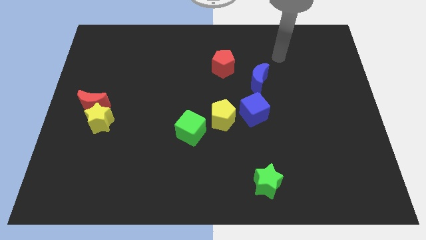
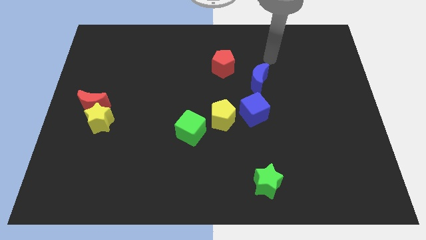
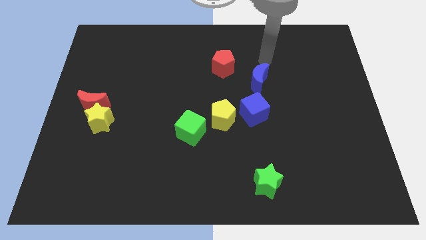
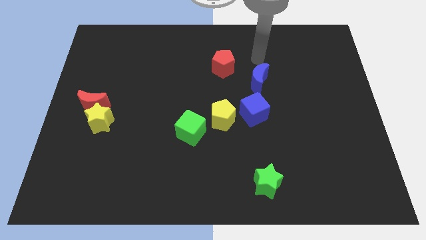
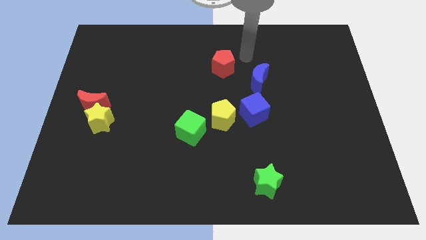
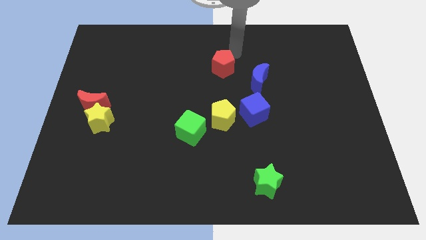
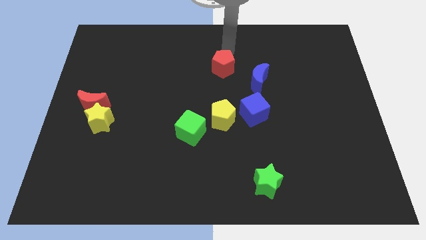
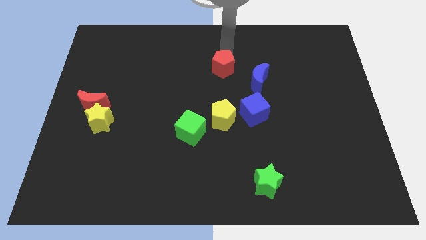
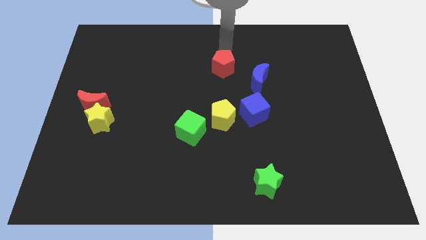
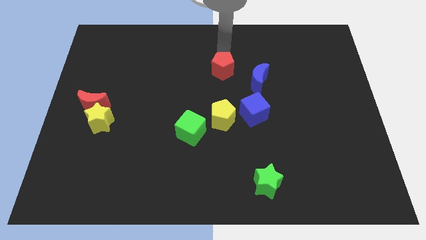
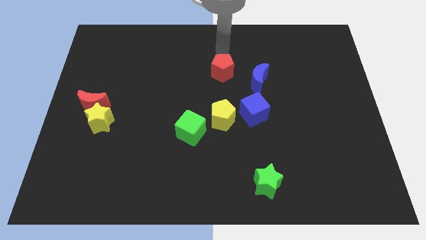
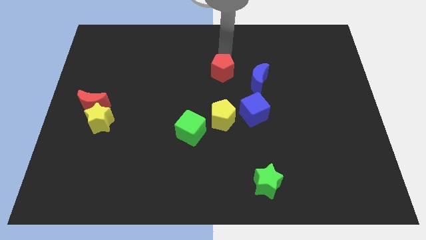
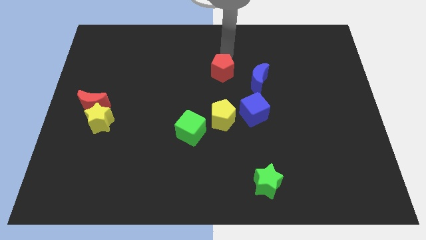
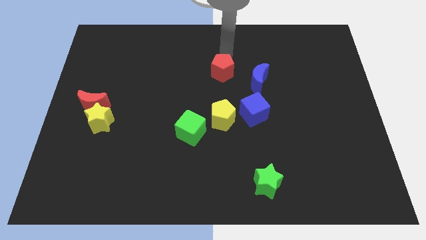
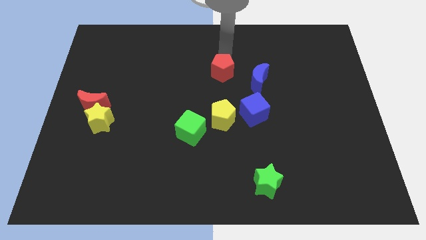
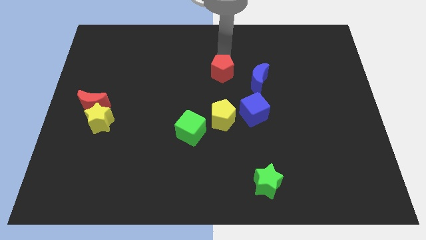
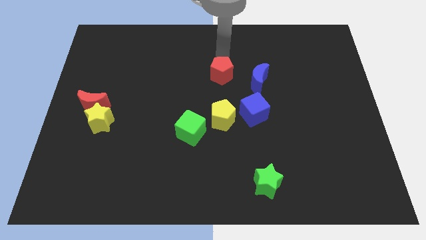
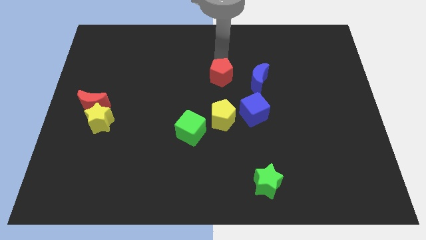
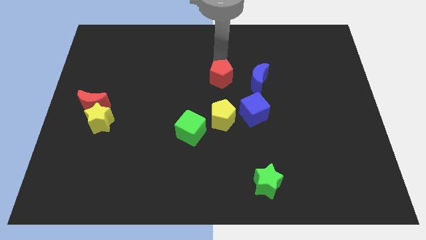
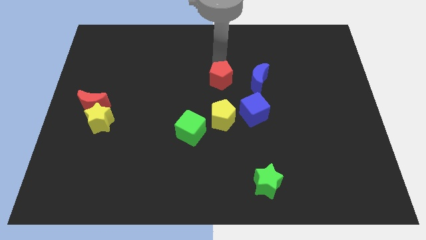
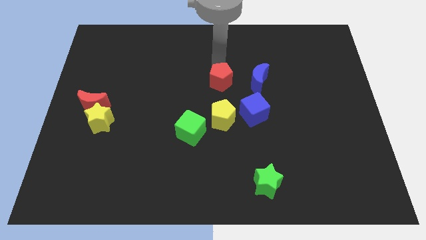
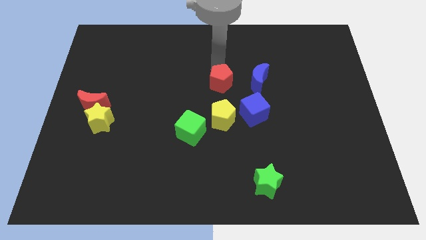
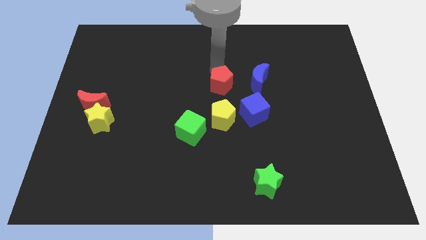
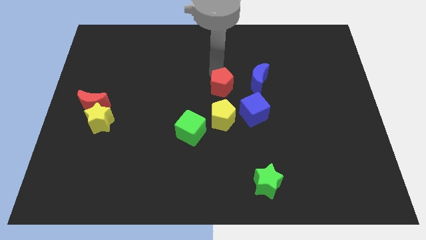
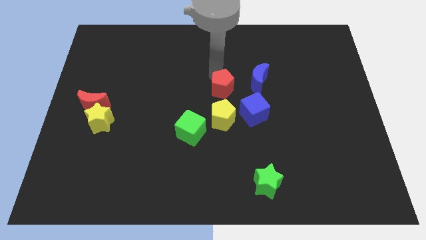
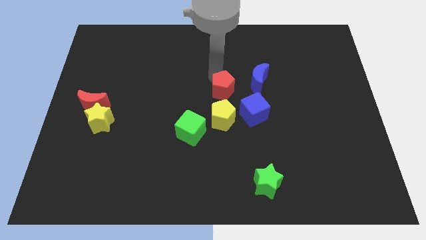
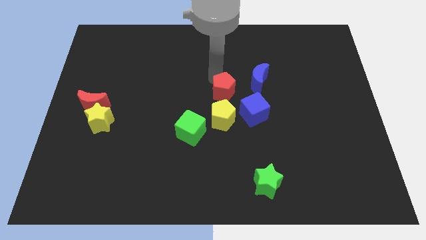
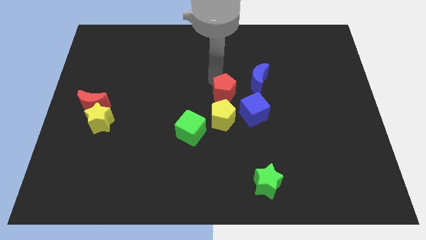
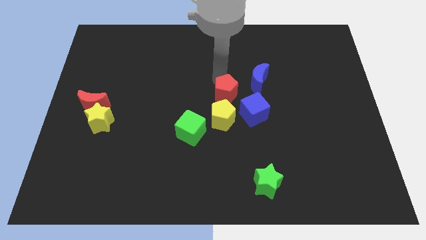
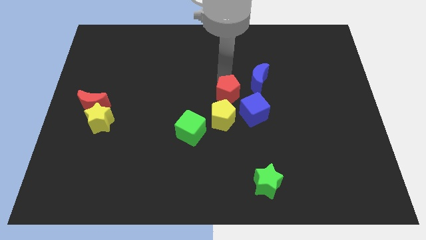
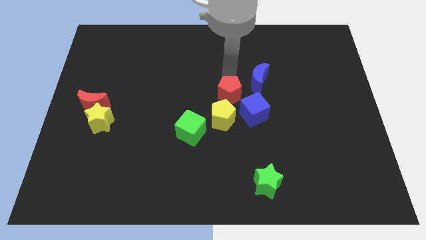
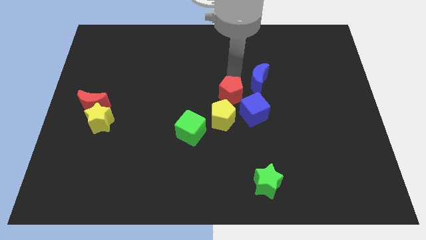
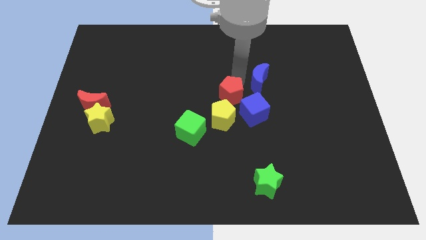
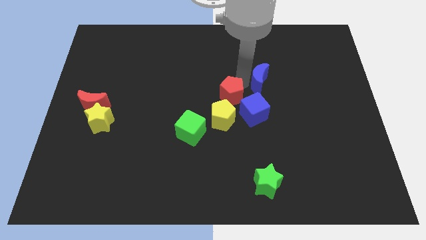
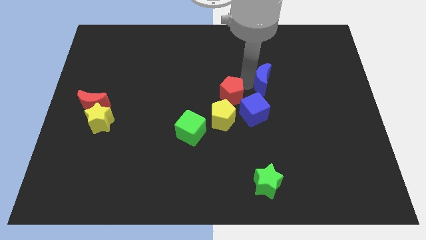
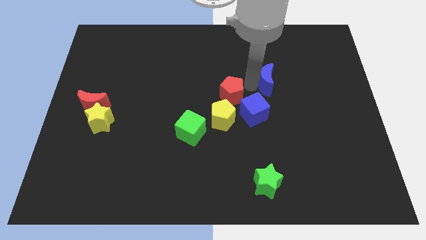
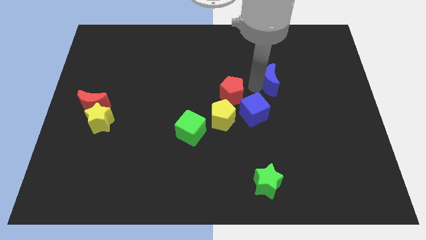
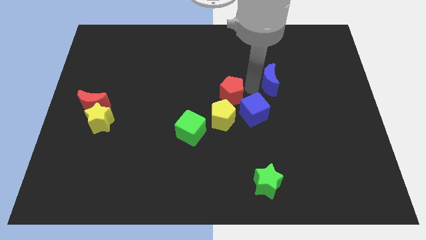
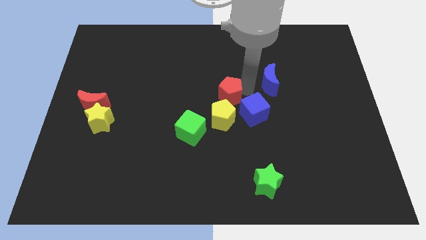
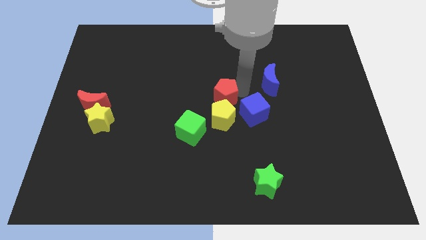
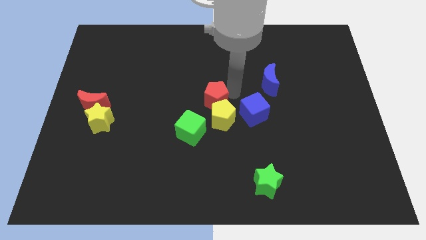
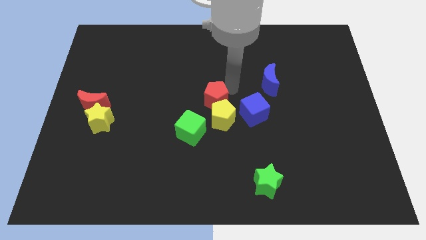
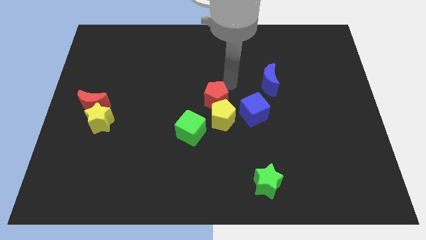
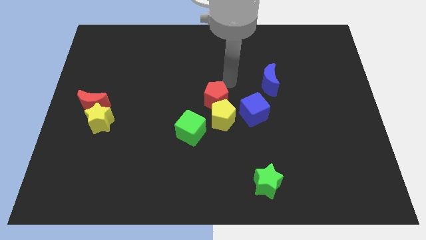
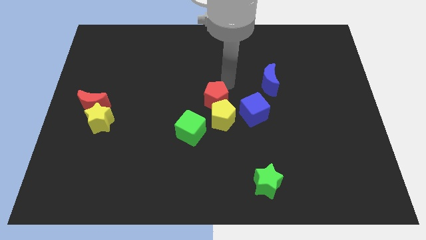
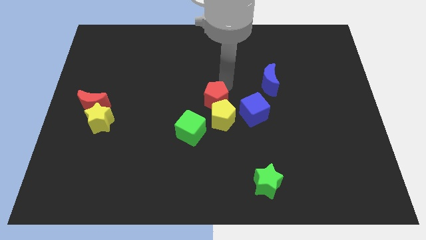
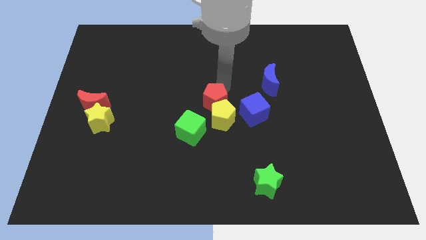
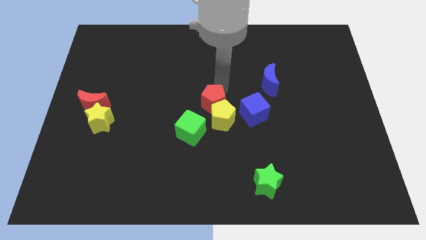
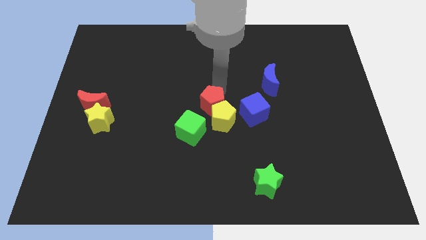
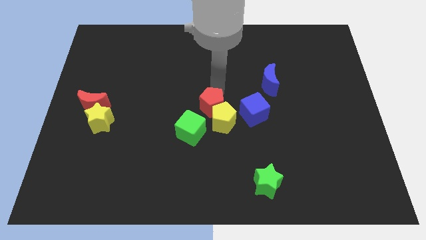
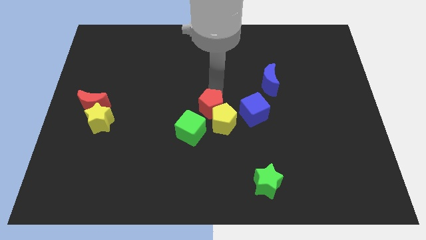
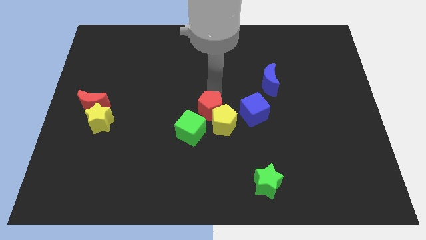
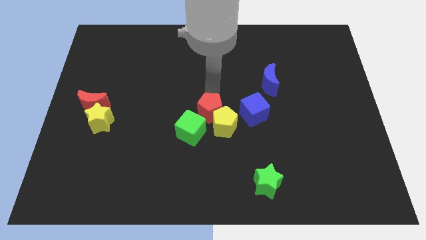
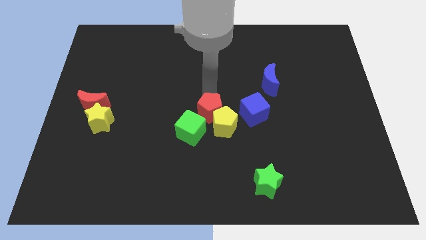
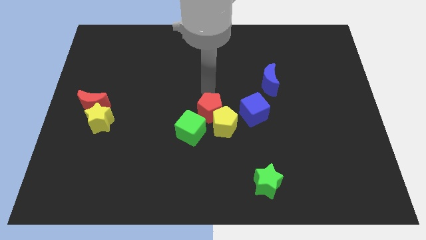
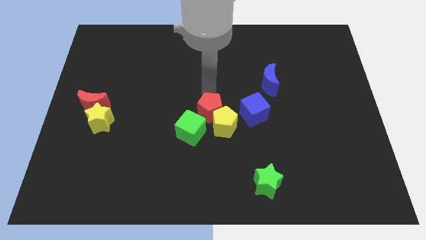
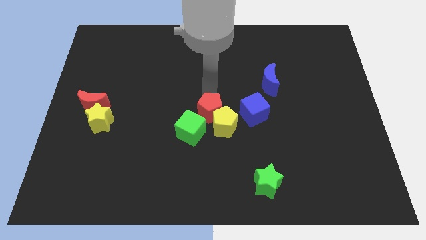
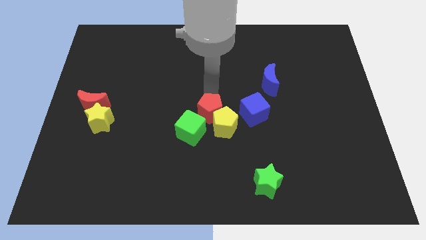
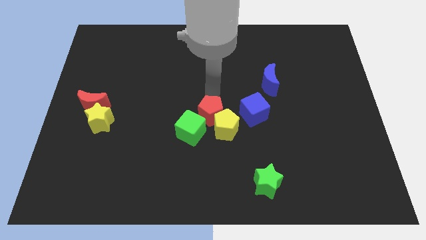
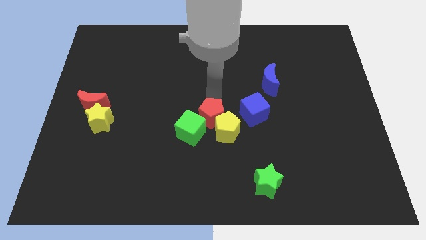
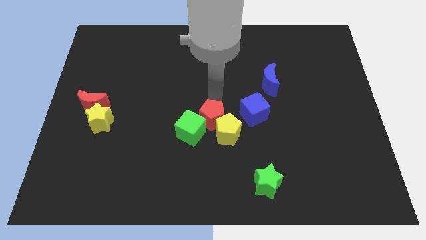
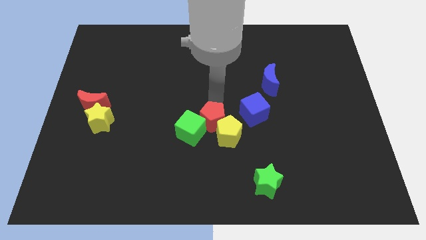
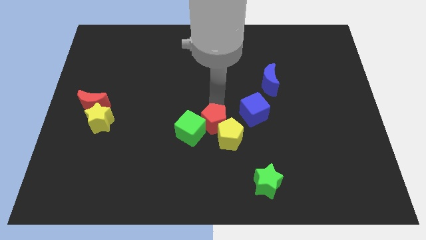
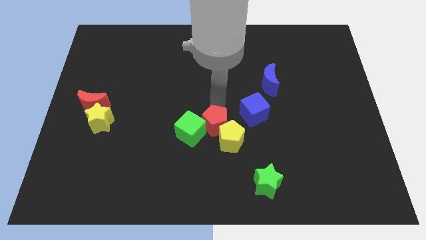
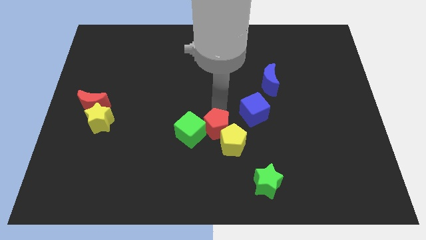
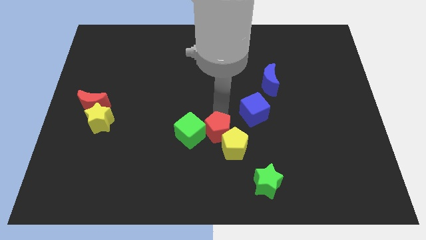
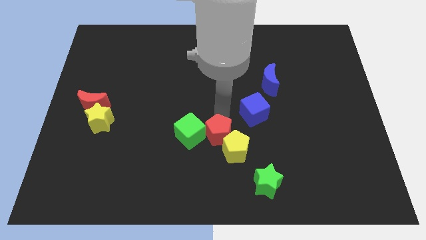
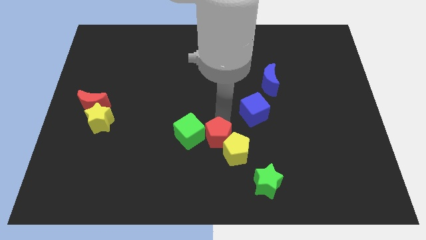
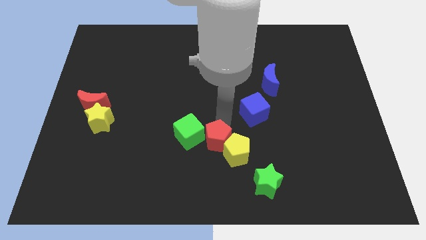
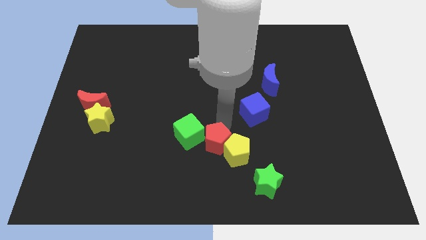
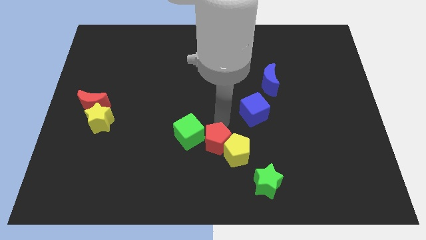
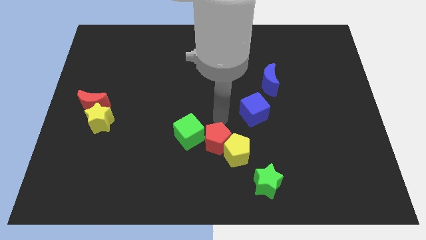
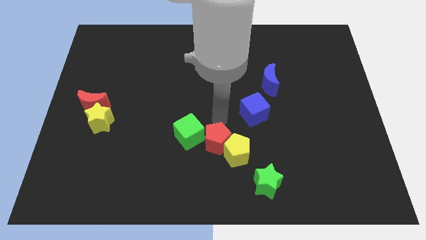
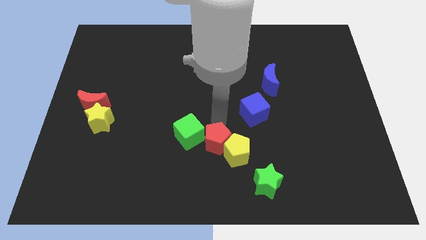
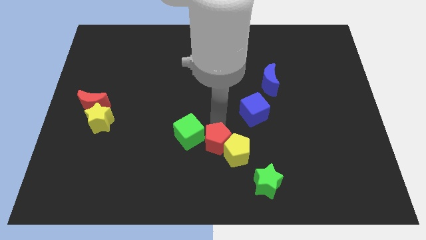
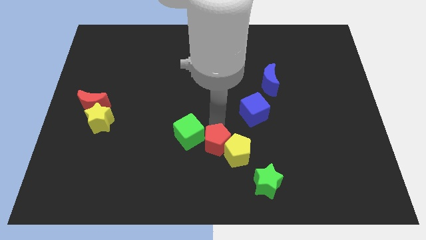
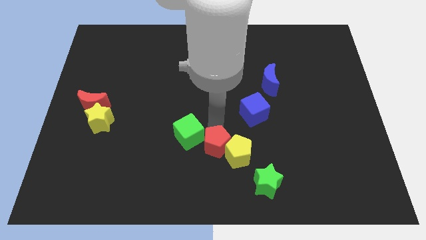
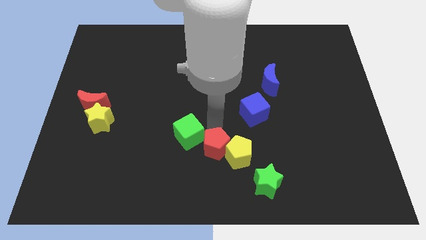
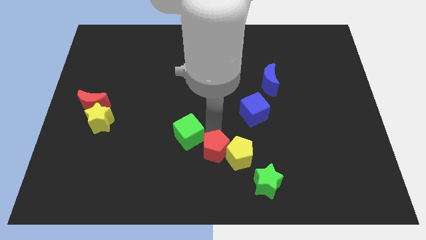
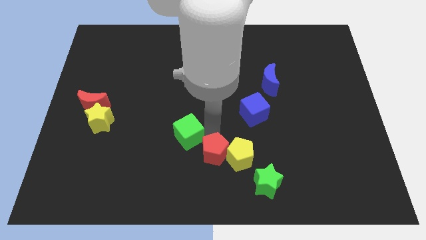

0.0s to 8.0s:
push the red pentagon to the bottom
